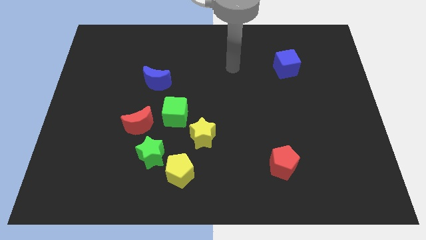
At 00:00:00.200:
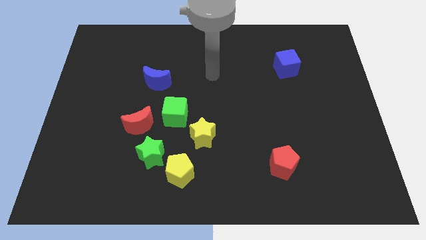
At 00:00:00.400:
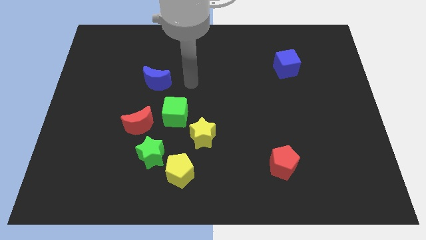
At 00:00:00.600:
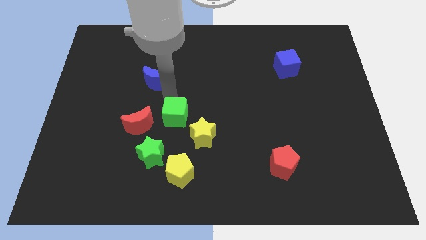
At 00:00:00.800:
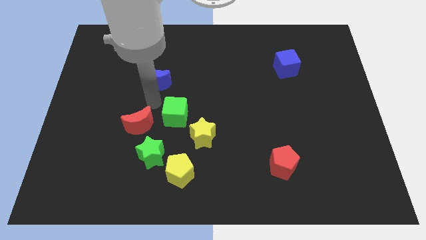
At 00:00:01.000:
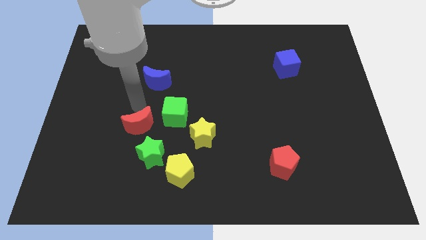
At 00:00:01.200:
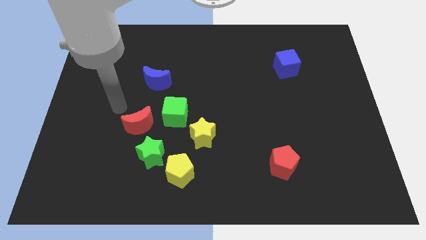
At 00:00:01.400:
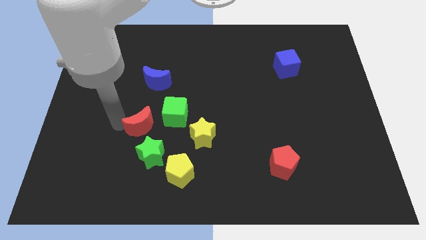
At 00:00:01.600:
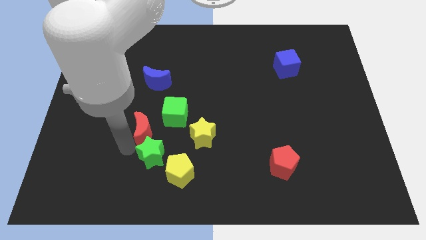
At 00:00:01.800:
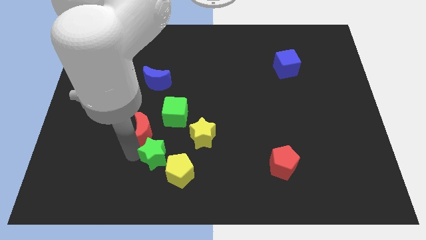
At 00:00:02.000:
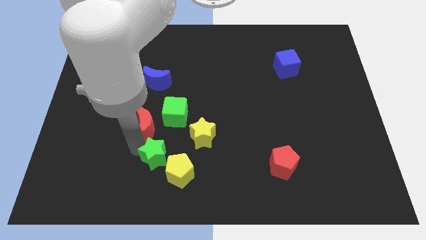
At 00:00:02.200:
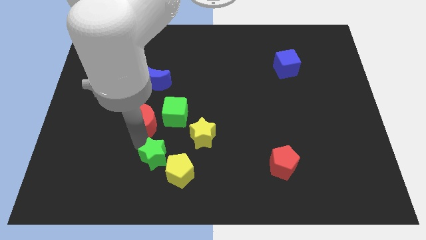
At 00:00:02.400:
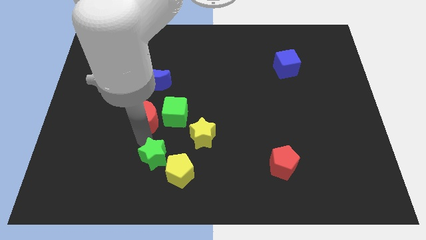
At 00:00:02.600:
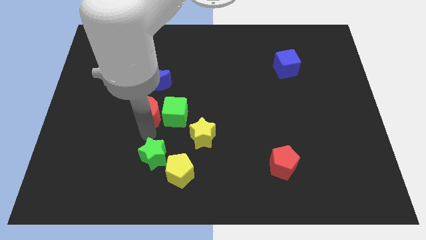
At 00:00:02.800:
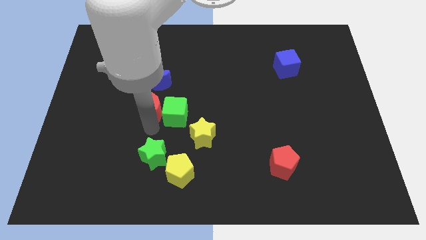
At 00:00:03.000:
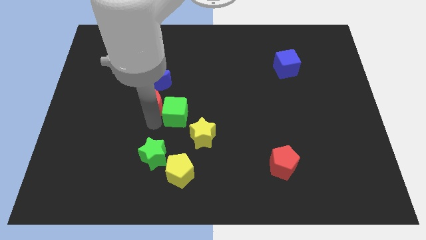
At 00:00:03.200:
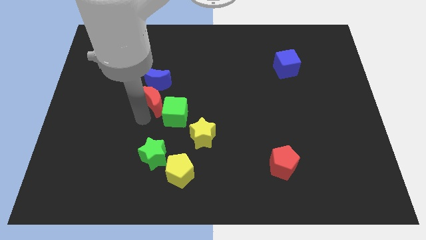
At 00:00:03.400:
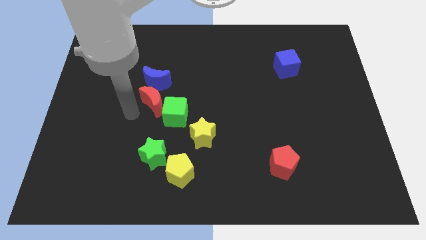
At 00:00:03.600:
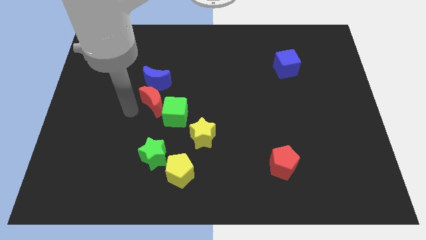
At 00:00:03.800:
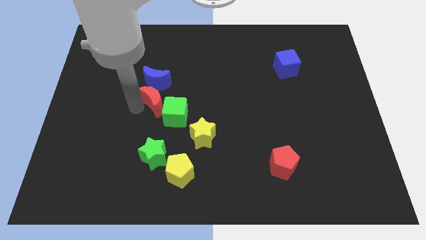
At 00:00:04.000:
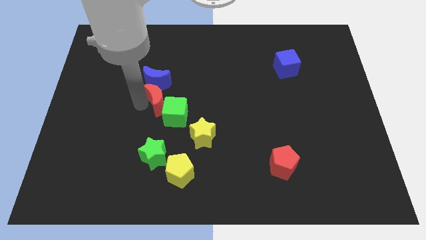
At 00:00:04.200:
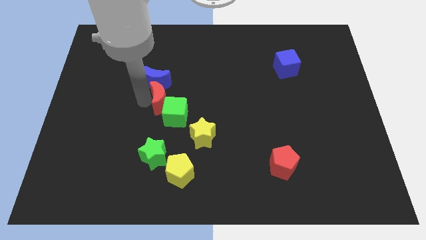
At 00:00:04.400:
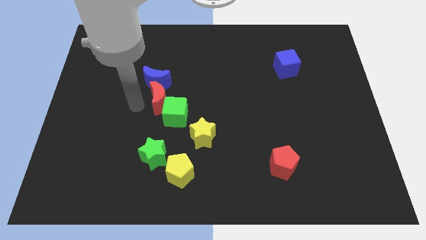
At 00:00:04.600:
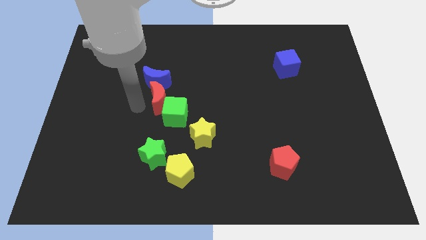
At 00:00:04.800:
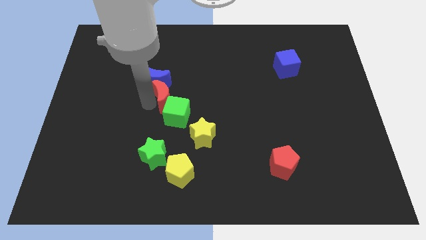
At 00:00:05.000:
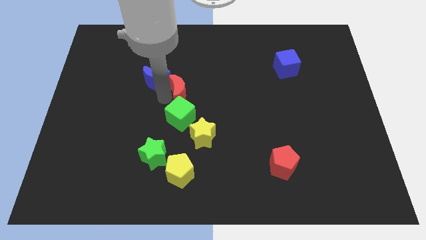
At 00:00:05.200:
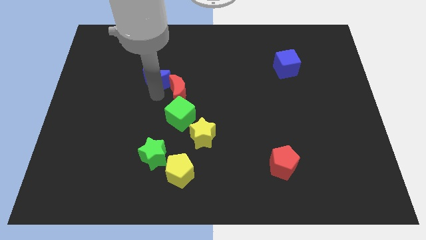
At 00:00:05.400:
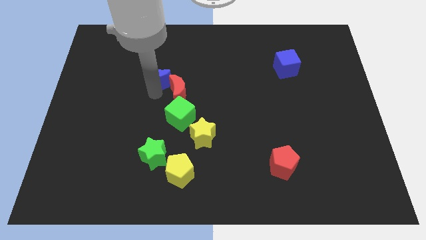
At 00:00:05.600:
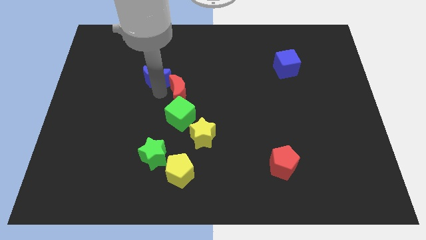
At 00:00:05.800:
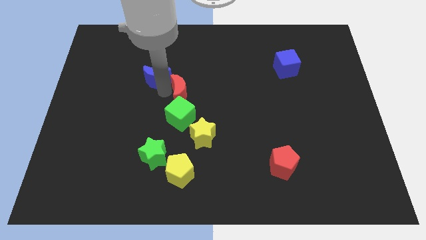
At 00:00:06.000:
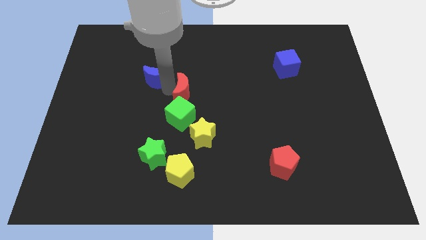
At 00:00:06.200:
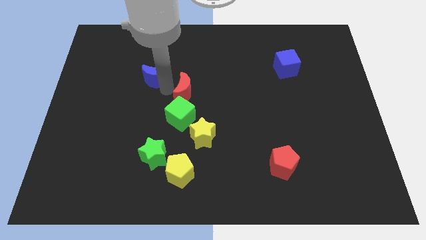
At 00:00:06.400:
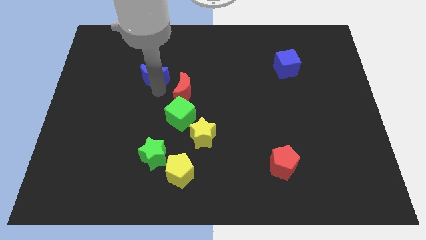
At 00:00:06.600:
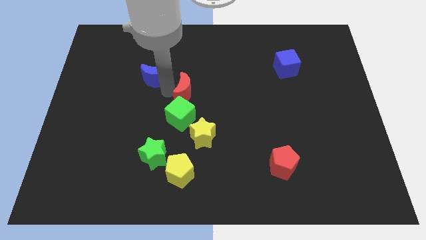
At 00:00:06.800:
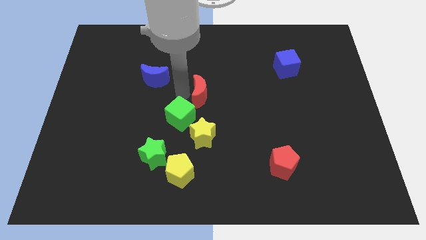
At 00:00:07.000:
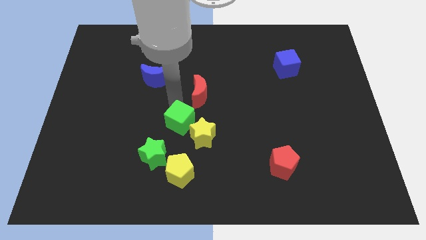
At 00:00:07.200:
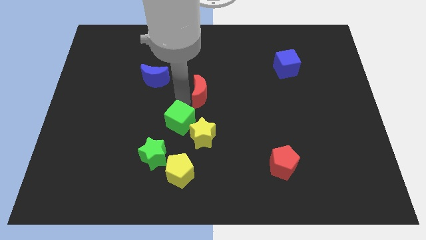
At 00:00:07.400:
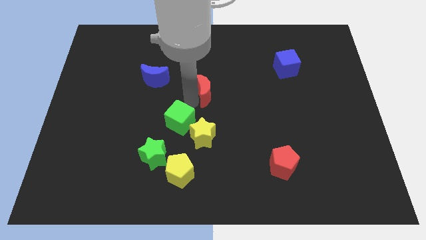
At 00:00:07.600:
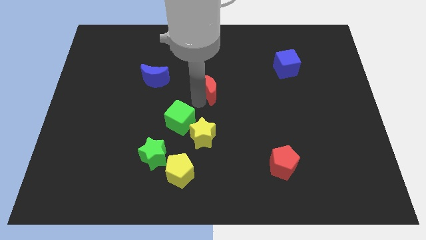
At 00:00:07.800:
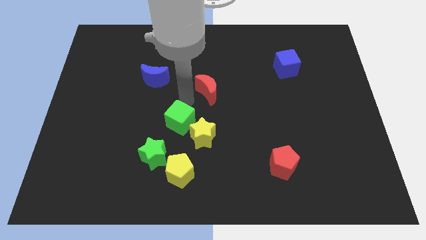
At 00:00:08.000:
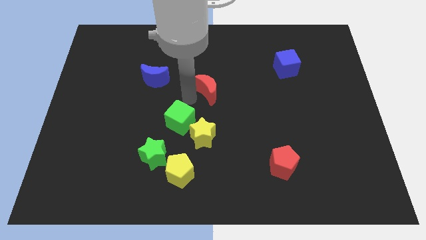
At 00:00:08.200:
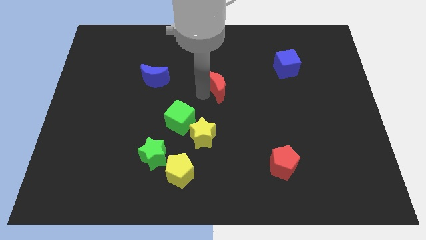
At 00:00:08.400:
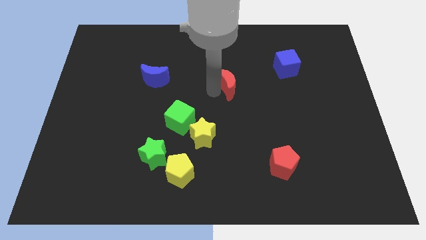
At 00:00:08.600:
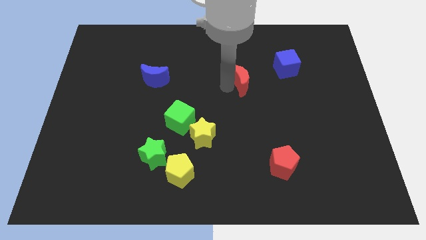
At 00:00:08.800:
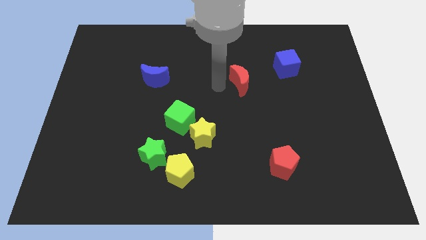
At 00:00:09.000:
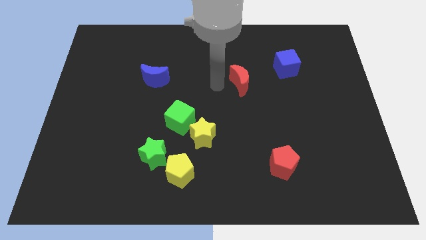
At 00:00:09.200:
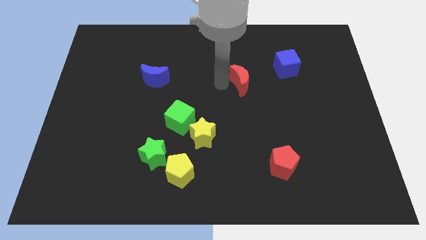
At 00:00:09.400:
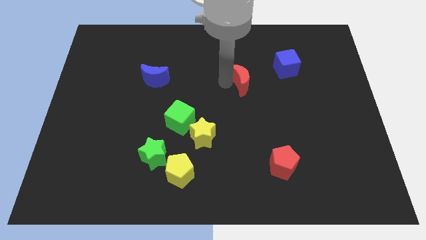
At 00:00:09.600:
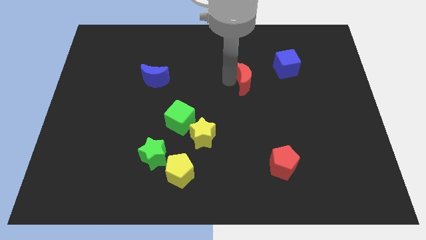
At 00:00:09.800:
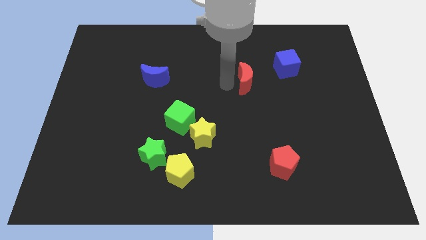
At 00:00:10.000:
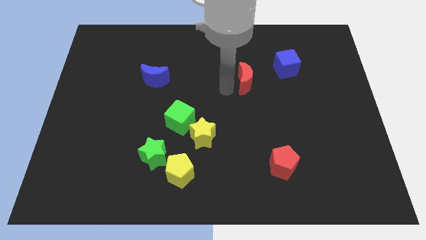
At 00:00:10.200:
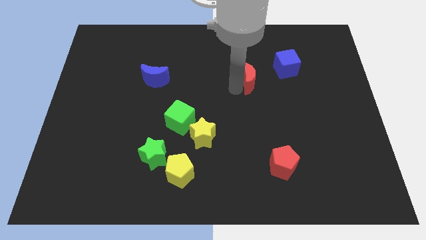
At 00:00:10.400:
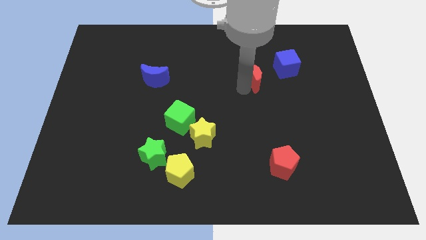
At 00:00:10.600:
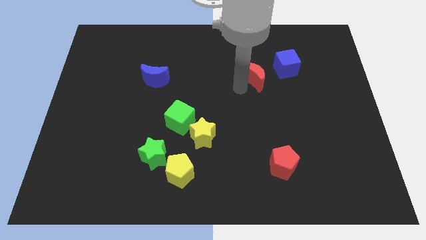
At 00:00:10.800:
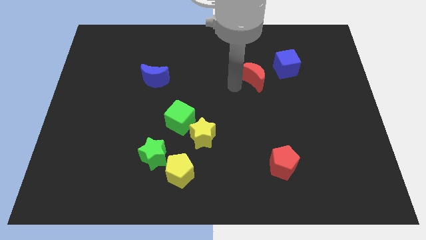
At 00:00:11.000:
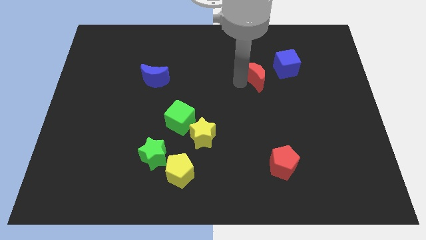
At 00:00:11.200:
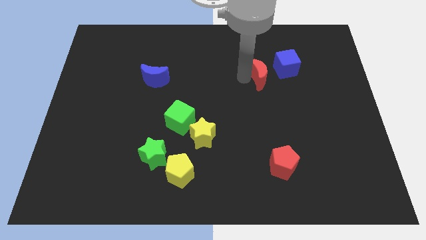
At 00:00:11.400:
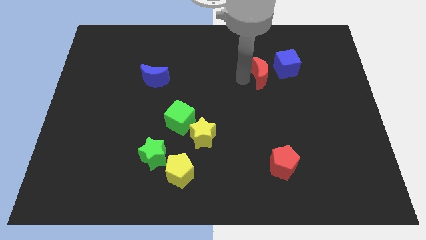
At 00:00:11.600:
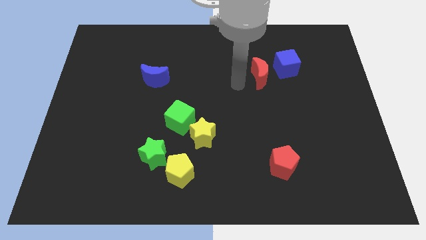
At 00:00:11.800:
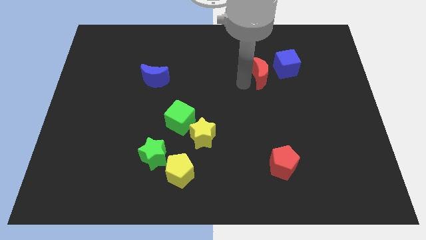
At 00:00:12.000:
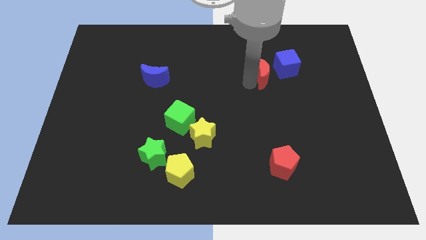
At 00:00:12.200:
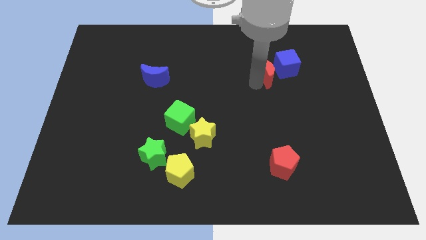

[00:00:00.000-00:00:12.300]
move the red moon next to the blue cube

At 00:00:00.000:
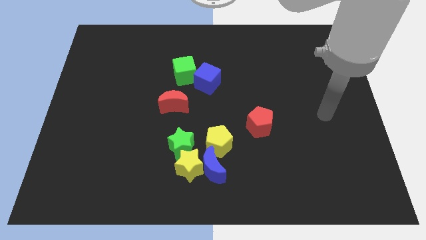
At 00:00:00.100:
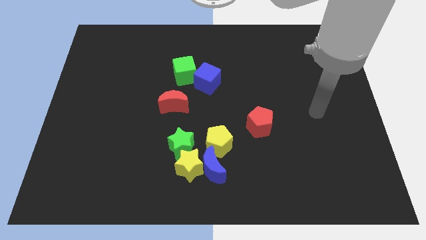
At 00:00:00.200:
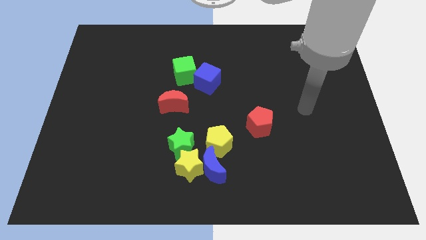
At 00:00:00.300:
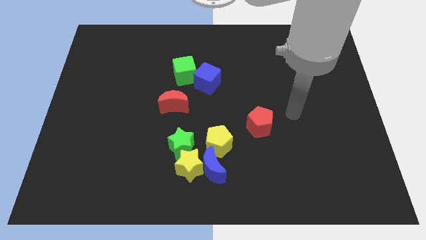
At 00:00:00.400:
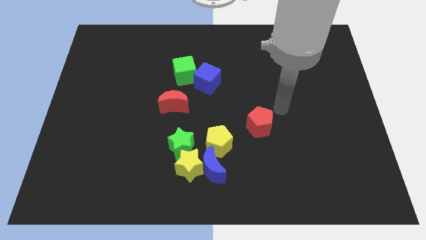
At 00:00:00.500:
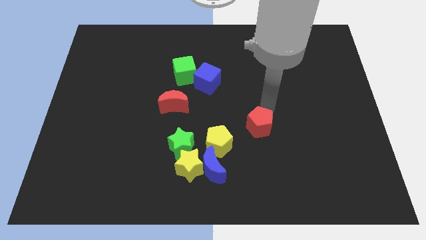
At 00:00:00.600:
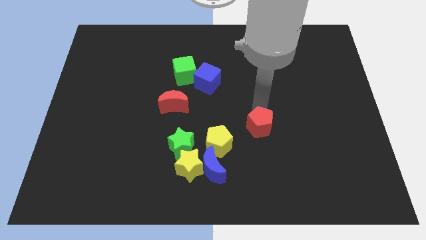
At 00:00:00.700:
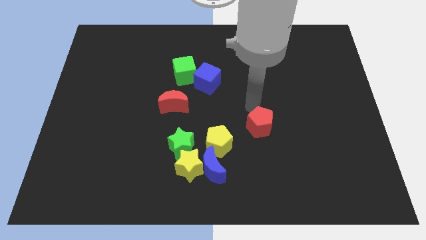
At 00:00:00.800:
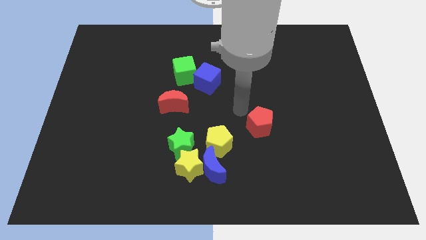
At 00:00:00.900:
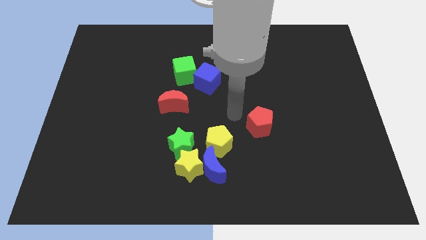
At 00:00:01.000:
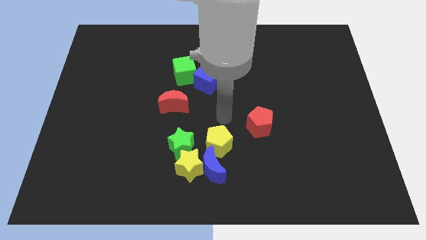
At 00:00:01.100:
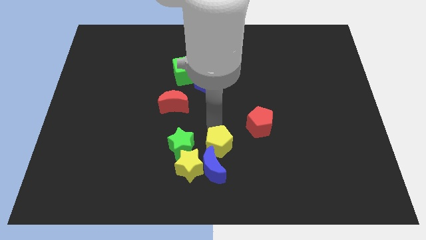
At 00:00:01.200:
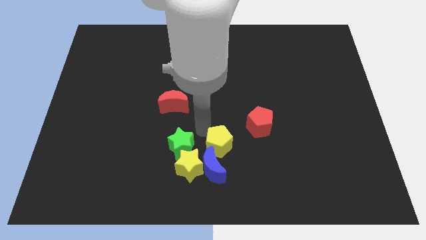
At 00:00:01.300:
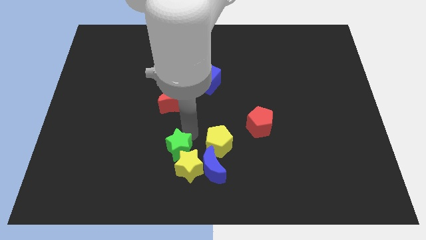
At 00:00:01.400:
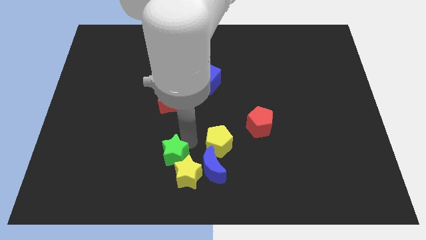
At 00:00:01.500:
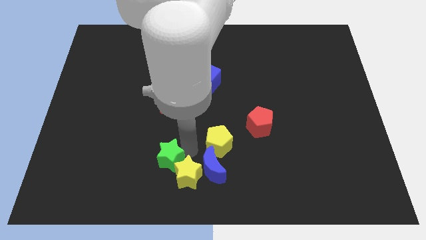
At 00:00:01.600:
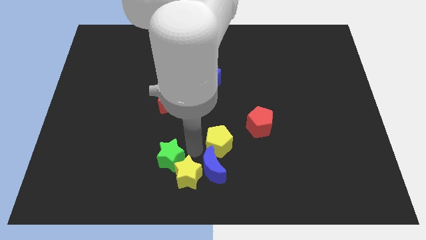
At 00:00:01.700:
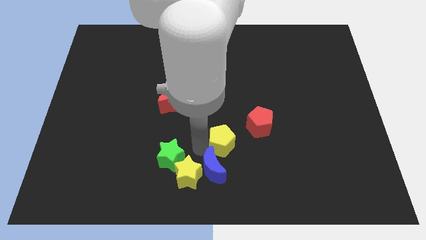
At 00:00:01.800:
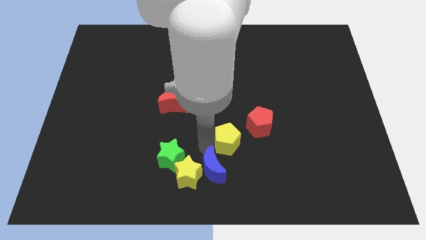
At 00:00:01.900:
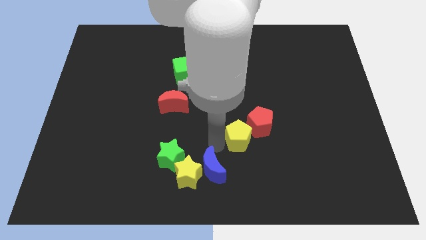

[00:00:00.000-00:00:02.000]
push the yellow pentagon close to the red pentagon
